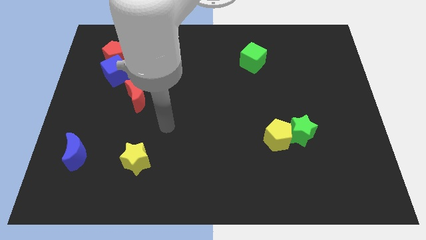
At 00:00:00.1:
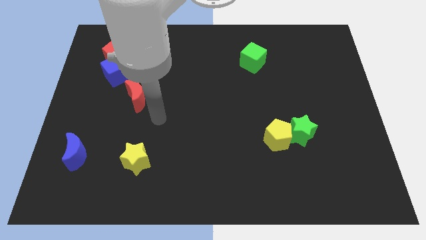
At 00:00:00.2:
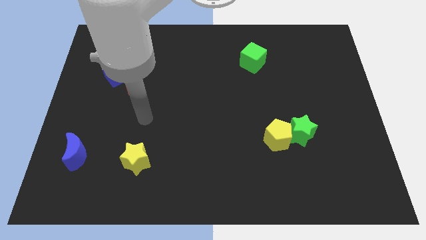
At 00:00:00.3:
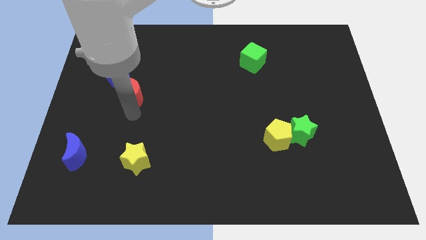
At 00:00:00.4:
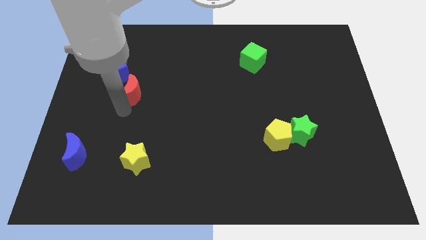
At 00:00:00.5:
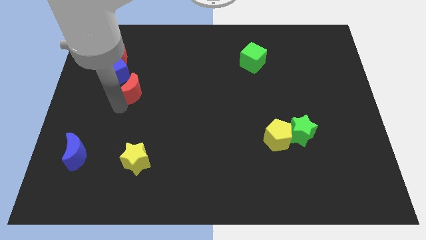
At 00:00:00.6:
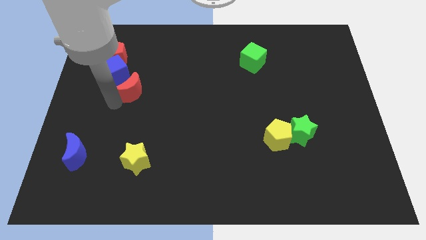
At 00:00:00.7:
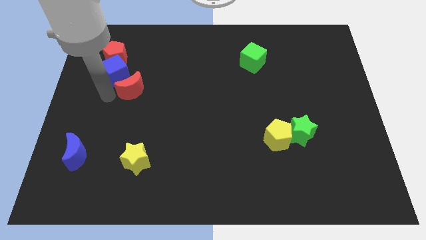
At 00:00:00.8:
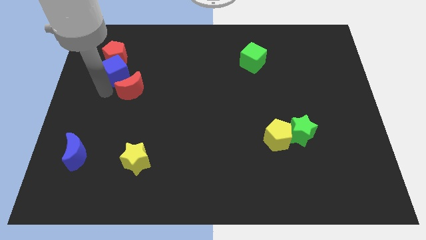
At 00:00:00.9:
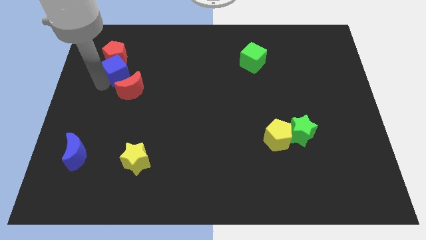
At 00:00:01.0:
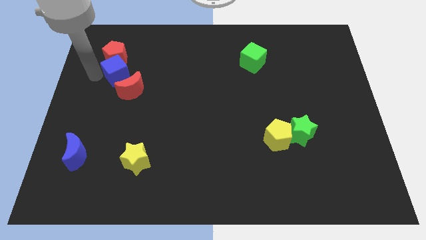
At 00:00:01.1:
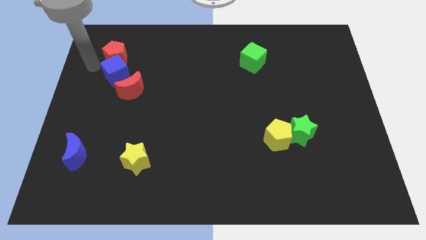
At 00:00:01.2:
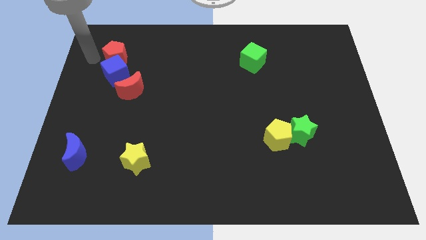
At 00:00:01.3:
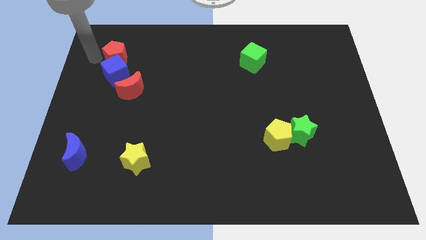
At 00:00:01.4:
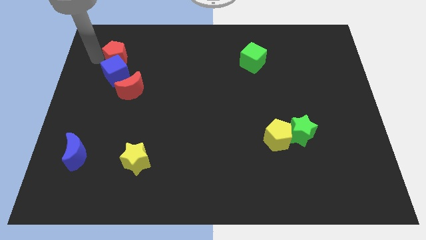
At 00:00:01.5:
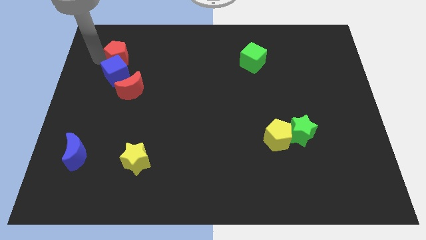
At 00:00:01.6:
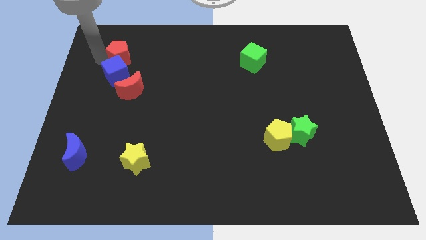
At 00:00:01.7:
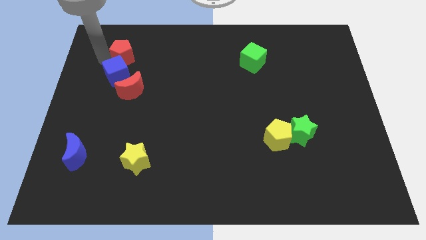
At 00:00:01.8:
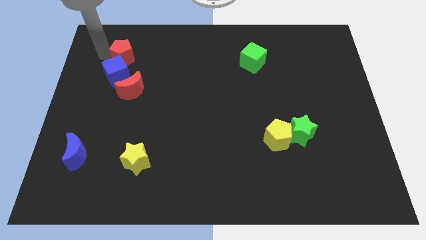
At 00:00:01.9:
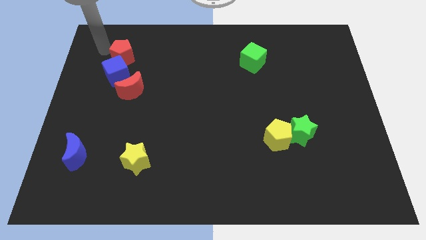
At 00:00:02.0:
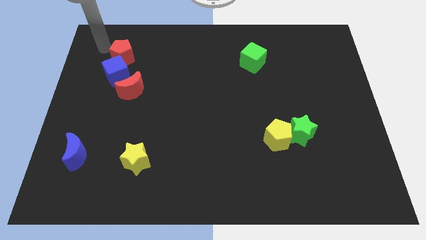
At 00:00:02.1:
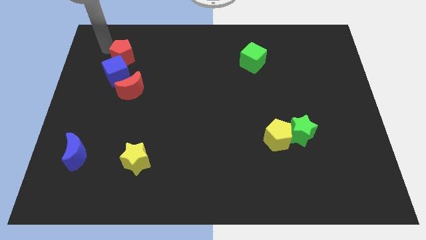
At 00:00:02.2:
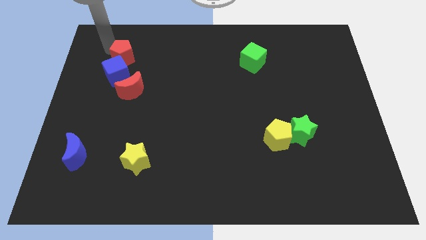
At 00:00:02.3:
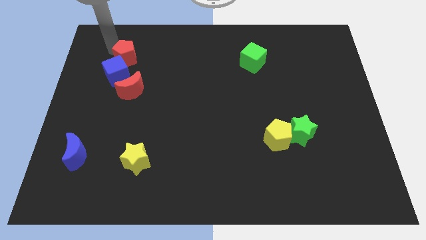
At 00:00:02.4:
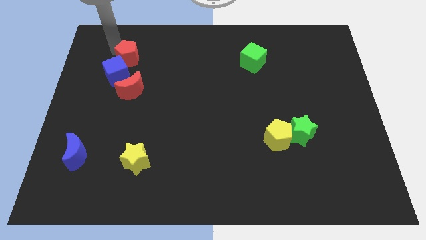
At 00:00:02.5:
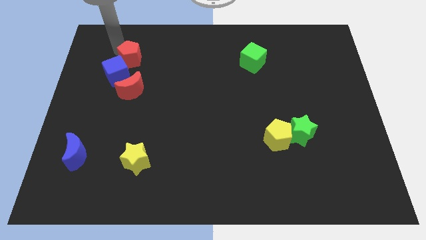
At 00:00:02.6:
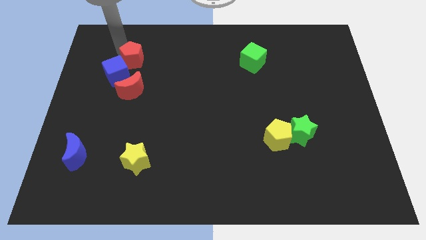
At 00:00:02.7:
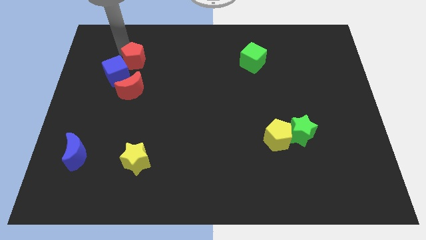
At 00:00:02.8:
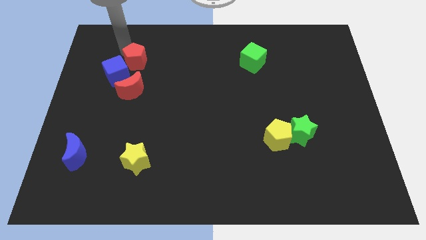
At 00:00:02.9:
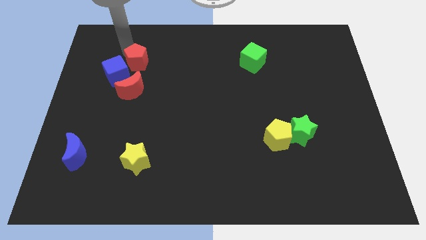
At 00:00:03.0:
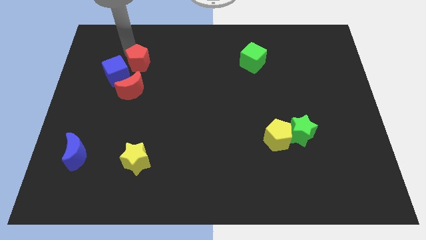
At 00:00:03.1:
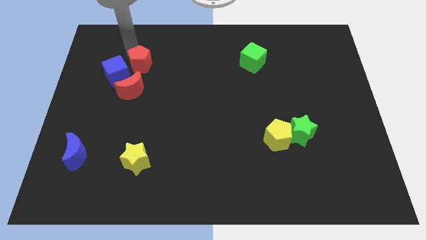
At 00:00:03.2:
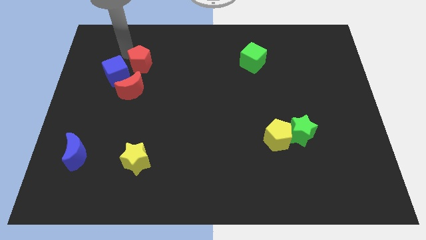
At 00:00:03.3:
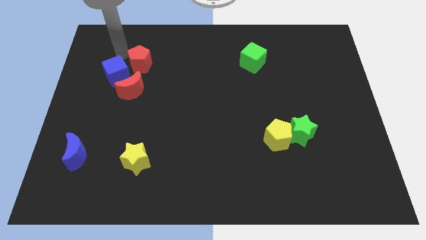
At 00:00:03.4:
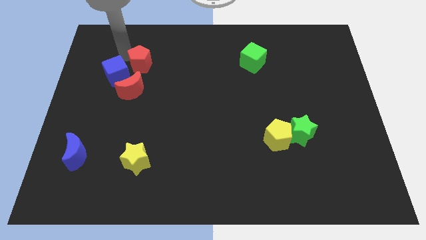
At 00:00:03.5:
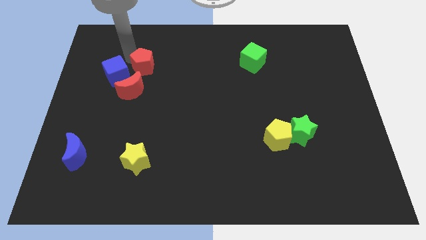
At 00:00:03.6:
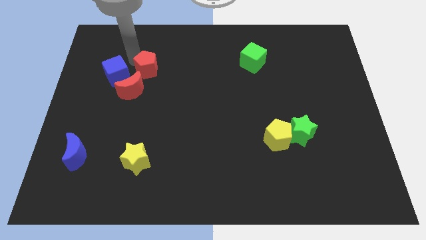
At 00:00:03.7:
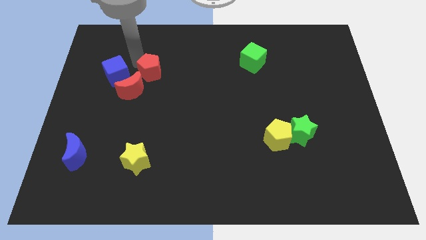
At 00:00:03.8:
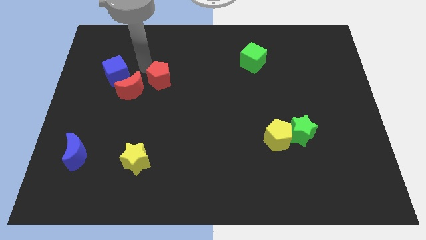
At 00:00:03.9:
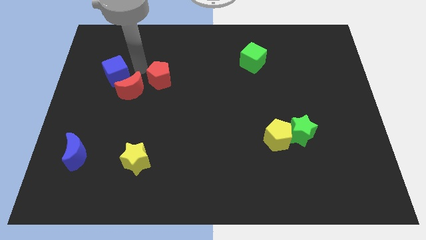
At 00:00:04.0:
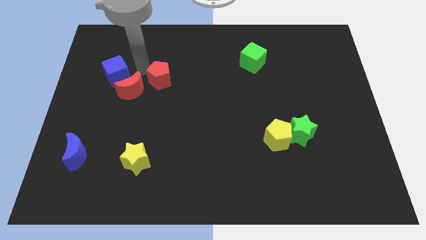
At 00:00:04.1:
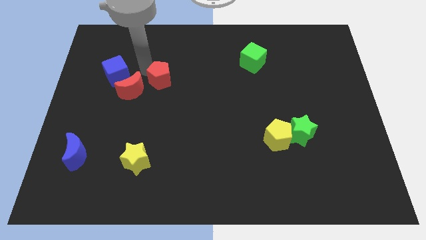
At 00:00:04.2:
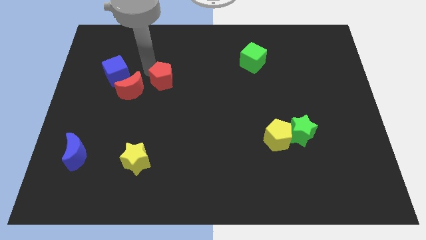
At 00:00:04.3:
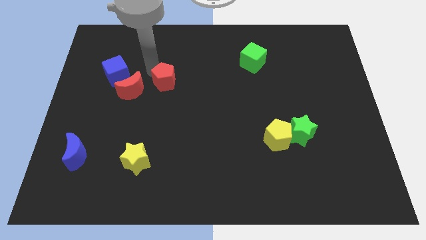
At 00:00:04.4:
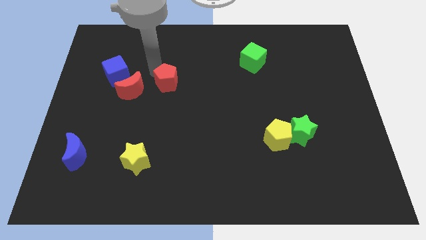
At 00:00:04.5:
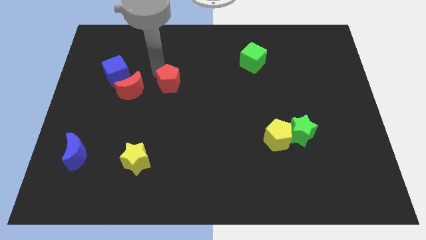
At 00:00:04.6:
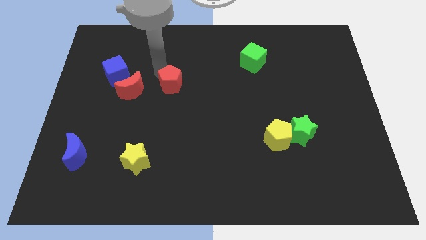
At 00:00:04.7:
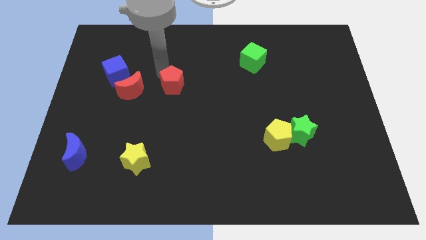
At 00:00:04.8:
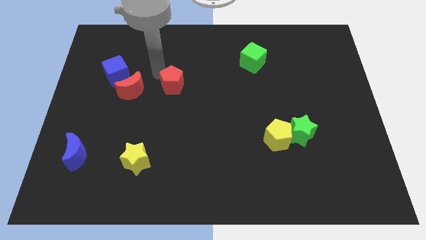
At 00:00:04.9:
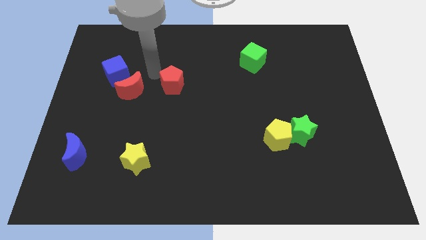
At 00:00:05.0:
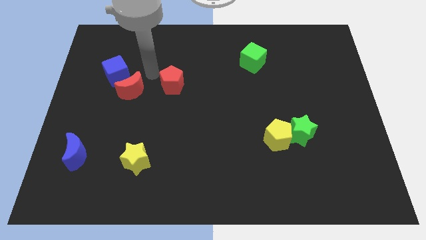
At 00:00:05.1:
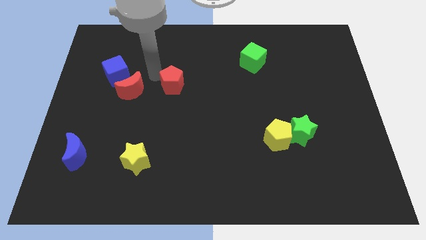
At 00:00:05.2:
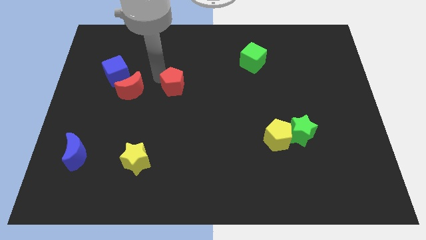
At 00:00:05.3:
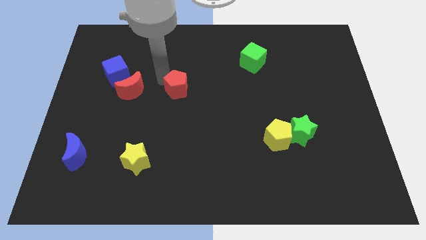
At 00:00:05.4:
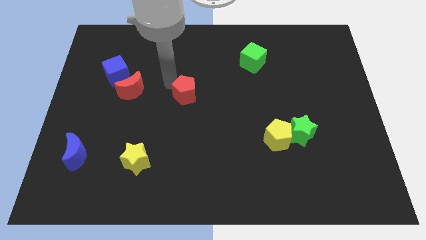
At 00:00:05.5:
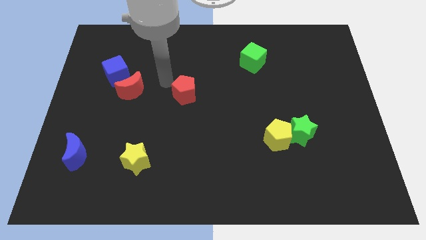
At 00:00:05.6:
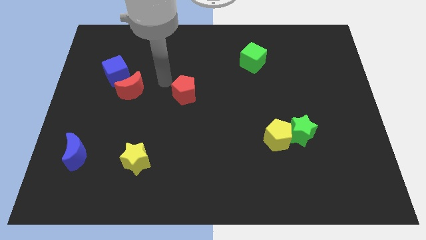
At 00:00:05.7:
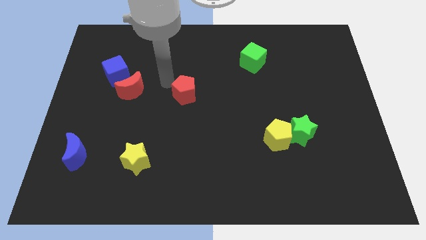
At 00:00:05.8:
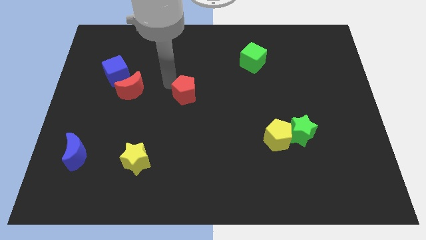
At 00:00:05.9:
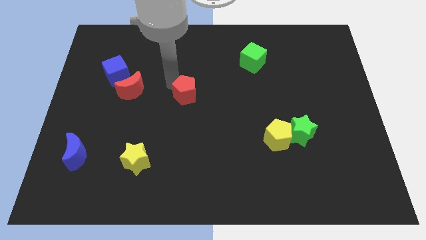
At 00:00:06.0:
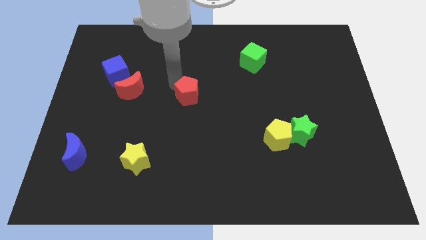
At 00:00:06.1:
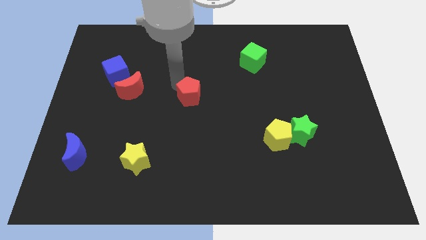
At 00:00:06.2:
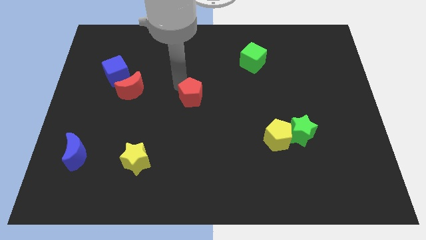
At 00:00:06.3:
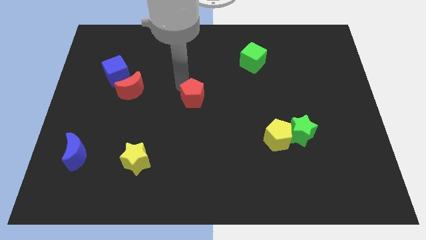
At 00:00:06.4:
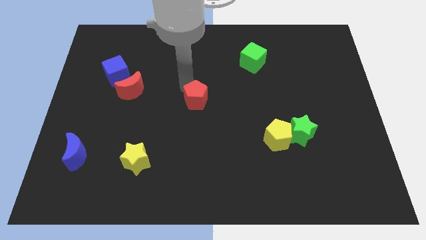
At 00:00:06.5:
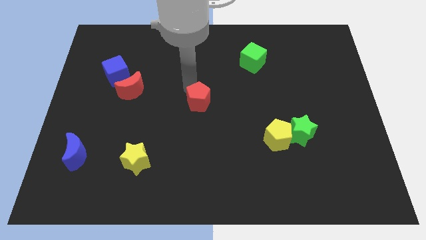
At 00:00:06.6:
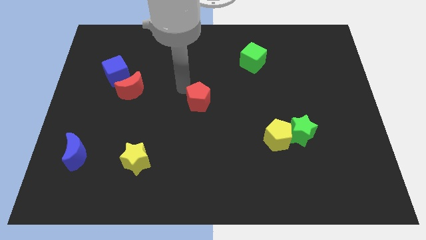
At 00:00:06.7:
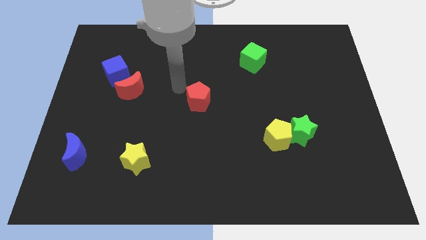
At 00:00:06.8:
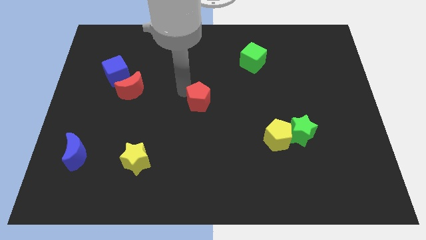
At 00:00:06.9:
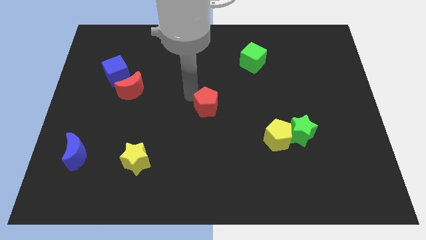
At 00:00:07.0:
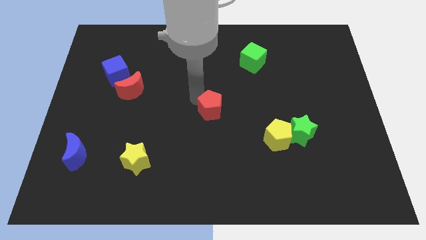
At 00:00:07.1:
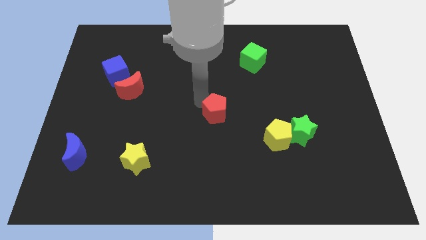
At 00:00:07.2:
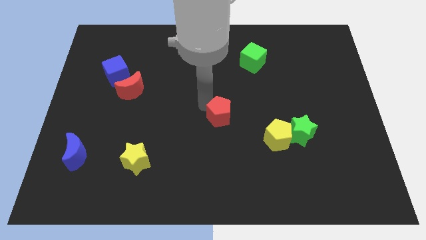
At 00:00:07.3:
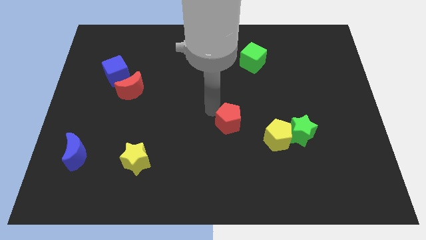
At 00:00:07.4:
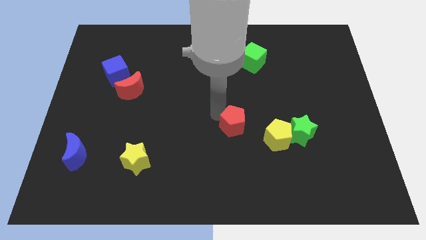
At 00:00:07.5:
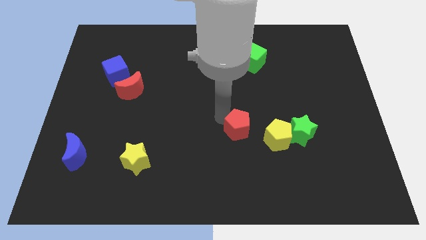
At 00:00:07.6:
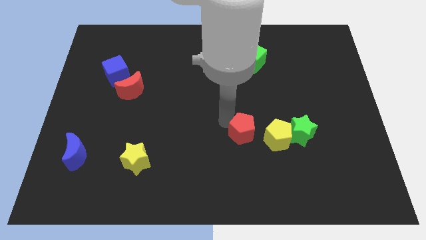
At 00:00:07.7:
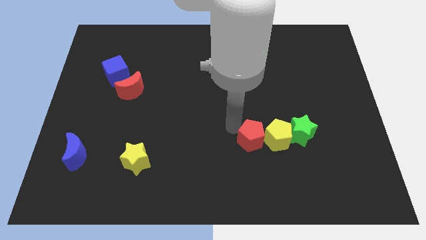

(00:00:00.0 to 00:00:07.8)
slide the red pentagon next to the yellow pentagon
